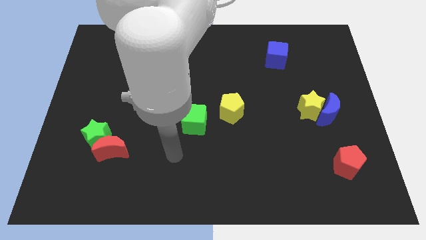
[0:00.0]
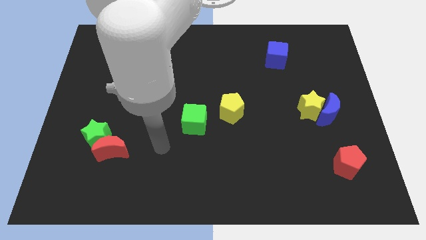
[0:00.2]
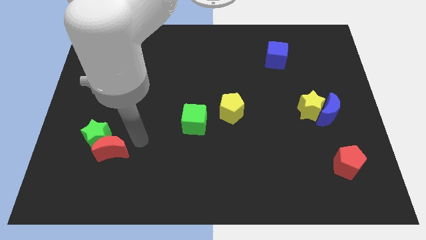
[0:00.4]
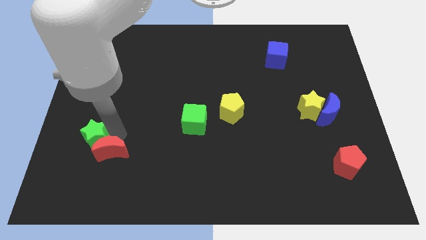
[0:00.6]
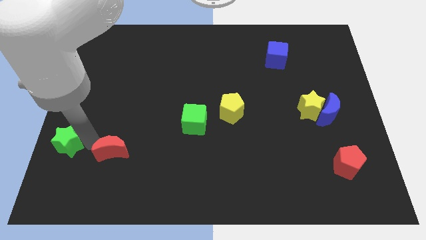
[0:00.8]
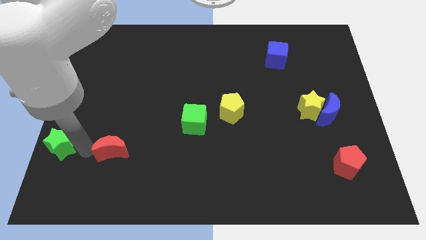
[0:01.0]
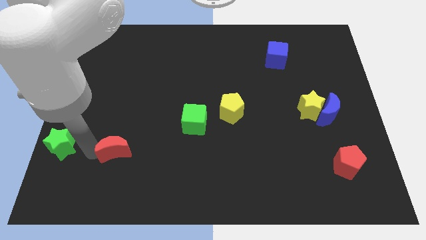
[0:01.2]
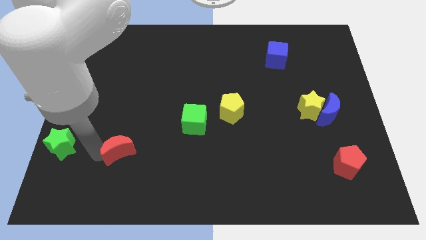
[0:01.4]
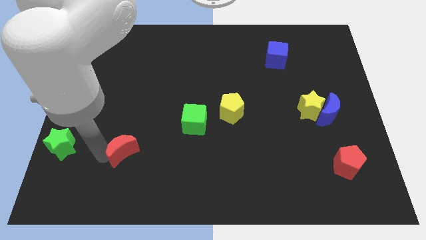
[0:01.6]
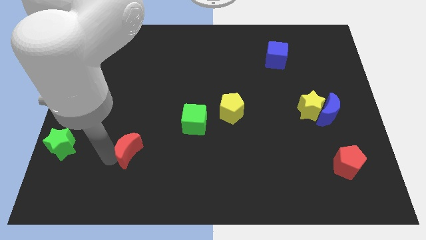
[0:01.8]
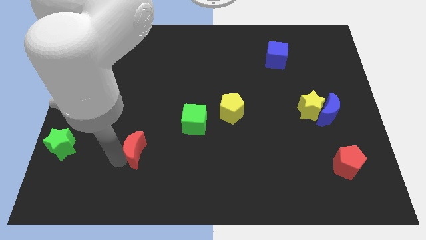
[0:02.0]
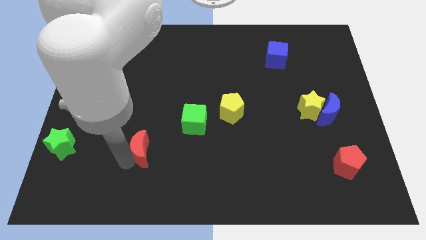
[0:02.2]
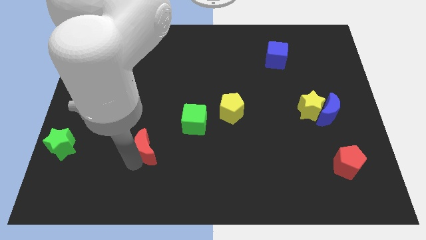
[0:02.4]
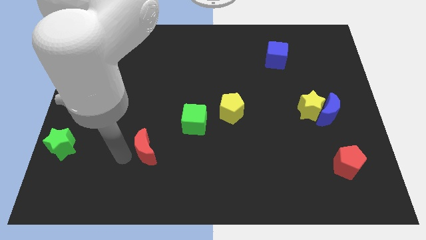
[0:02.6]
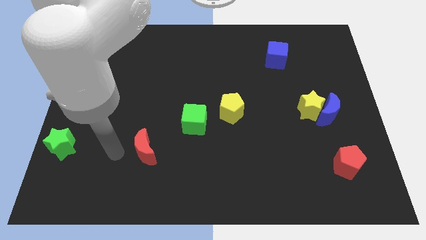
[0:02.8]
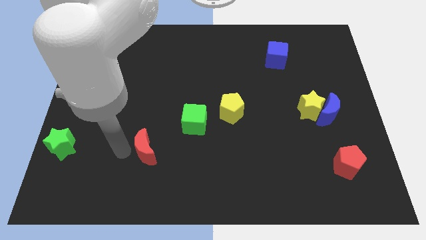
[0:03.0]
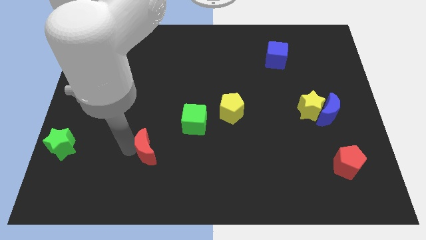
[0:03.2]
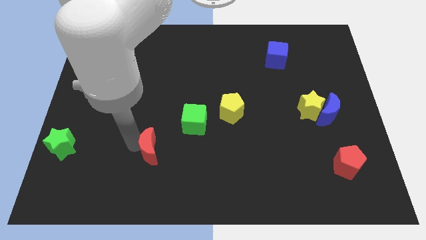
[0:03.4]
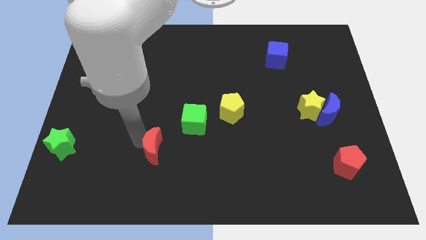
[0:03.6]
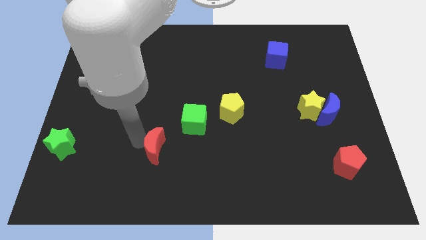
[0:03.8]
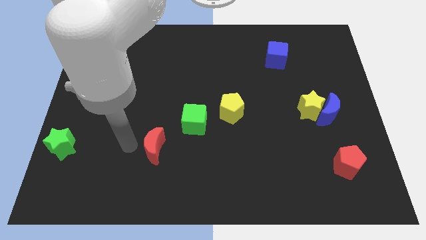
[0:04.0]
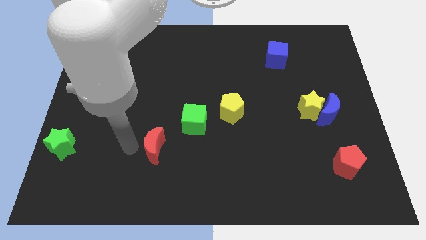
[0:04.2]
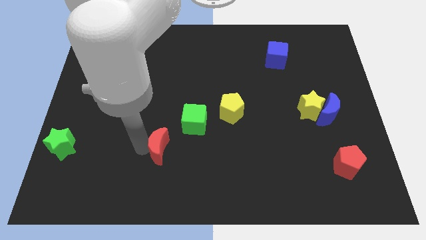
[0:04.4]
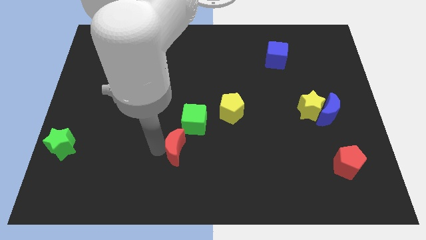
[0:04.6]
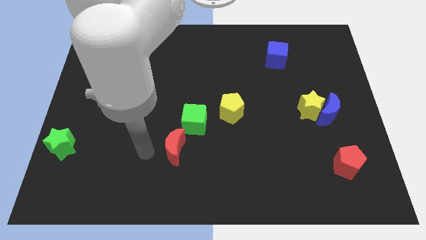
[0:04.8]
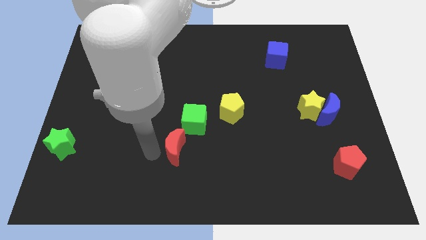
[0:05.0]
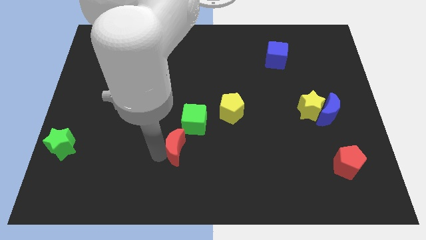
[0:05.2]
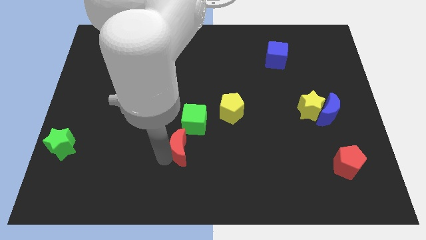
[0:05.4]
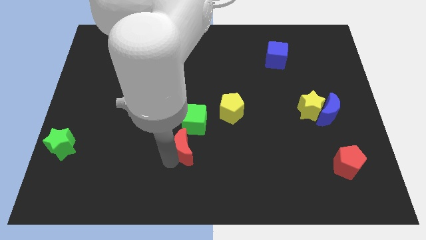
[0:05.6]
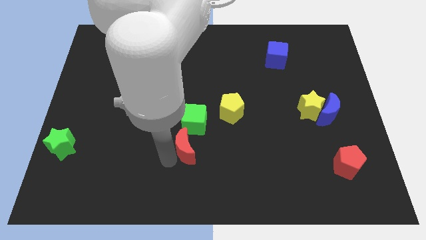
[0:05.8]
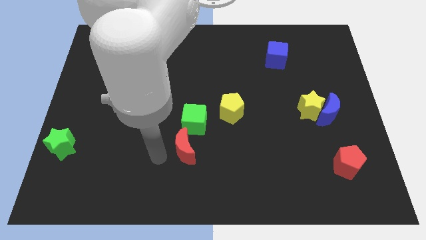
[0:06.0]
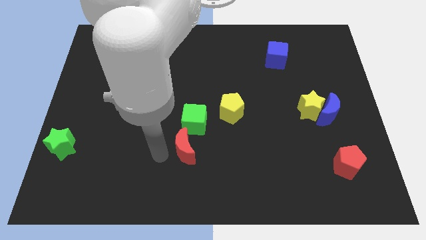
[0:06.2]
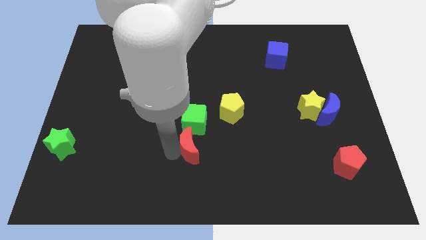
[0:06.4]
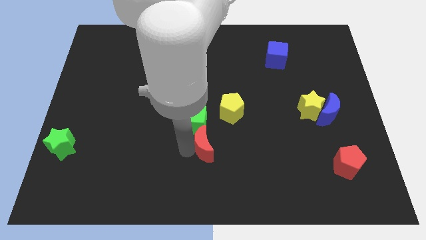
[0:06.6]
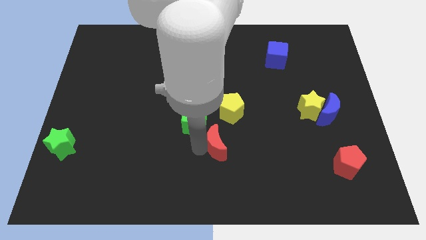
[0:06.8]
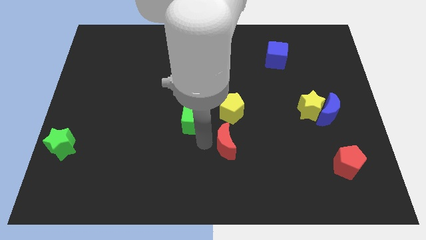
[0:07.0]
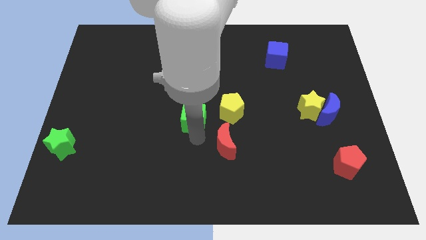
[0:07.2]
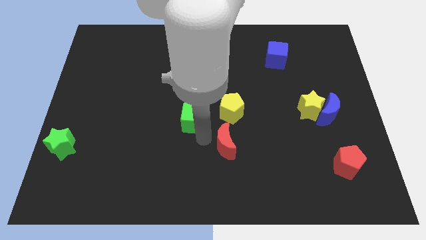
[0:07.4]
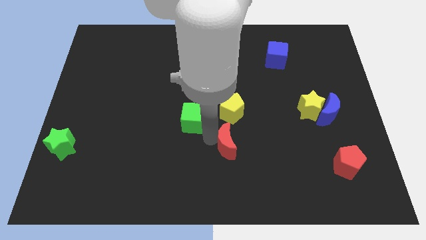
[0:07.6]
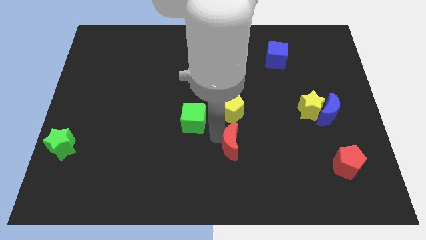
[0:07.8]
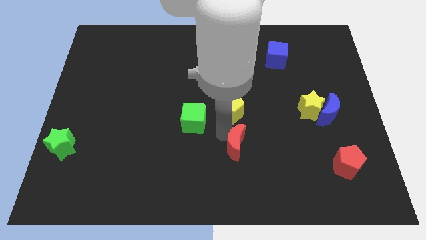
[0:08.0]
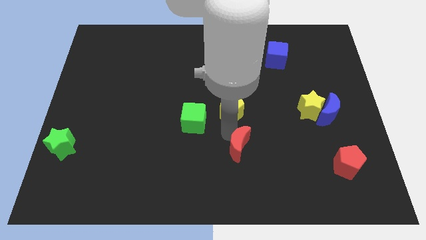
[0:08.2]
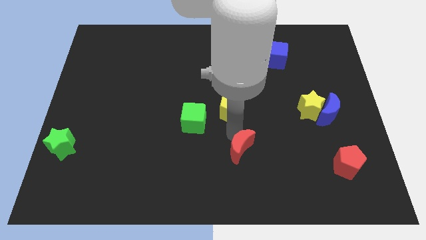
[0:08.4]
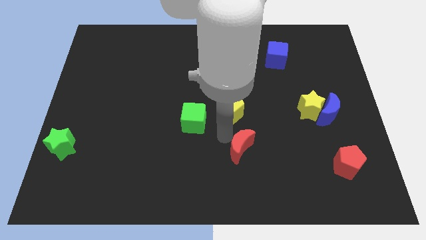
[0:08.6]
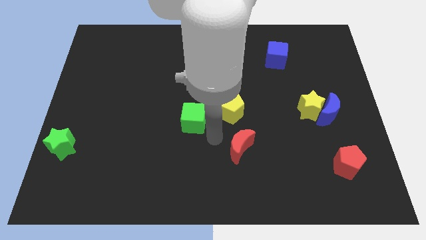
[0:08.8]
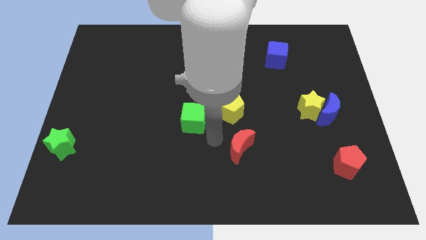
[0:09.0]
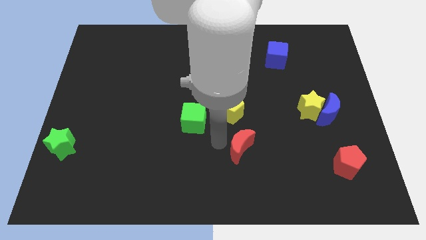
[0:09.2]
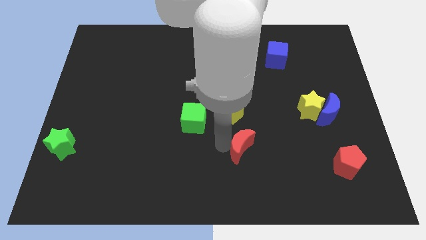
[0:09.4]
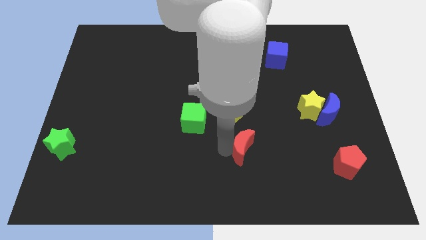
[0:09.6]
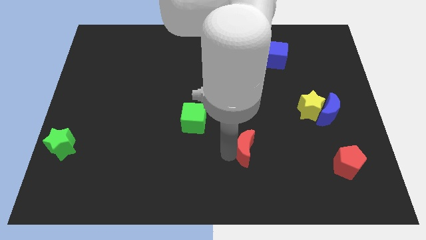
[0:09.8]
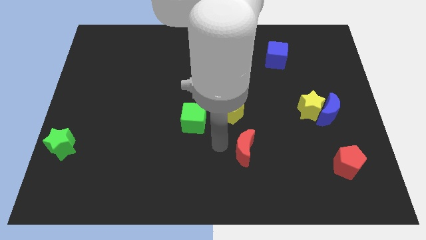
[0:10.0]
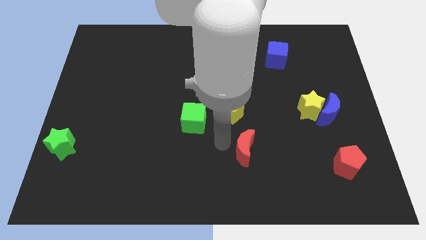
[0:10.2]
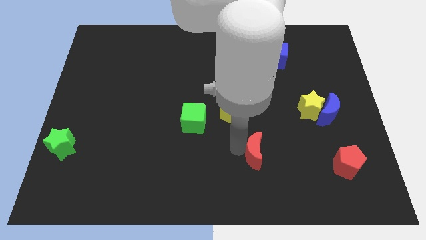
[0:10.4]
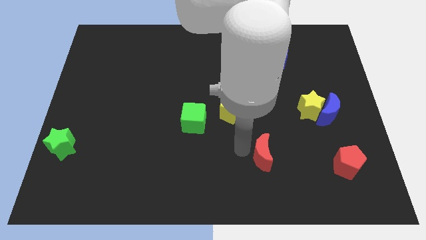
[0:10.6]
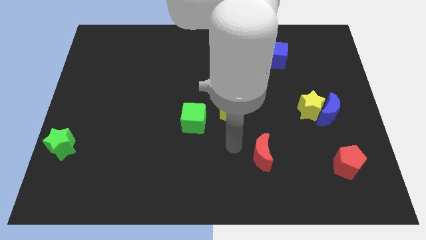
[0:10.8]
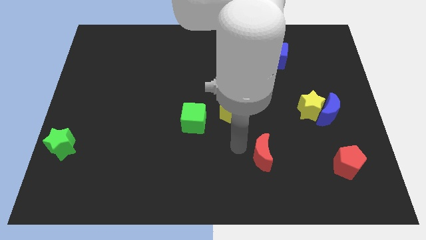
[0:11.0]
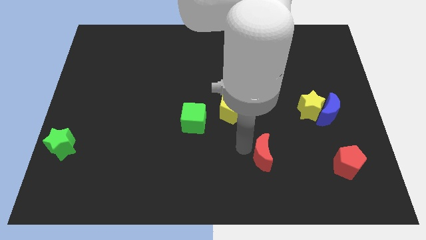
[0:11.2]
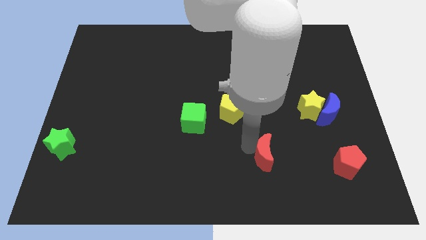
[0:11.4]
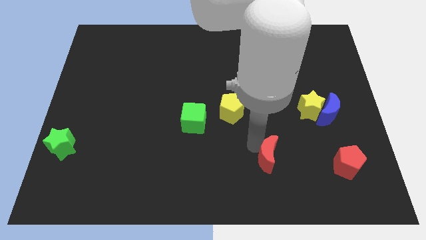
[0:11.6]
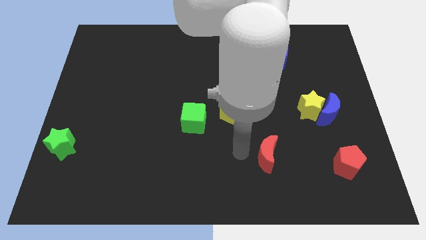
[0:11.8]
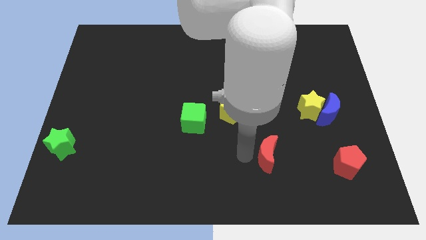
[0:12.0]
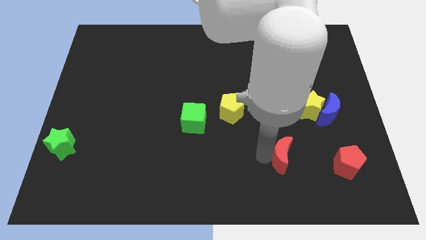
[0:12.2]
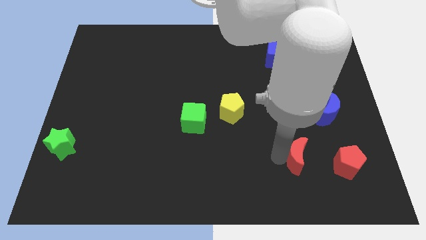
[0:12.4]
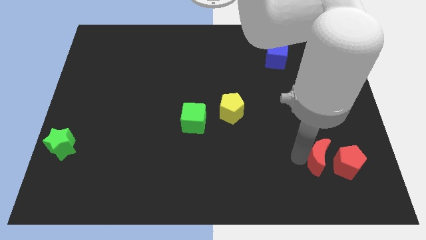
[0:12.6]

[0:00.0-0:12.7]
slide the red moon towards the red pentagon

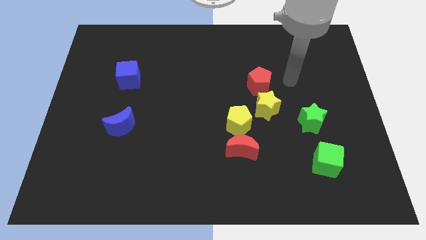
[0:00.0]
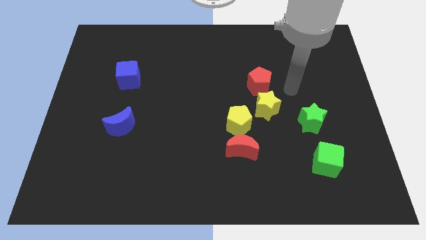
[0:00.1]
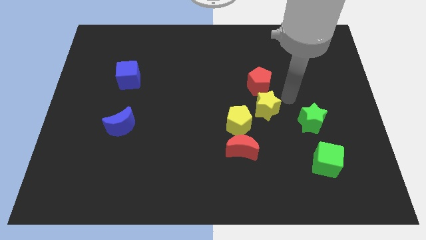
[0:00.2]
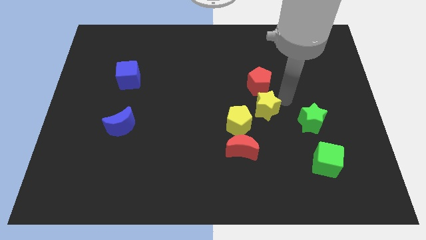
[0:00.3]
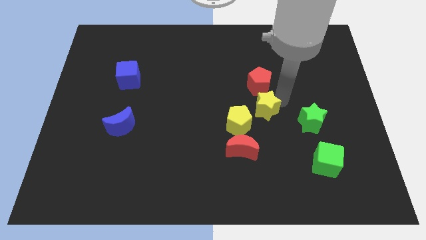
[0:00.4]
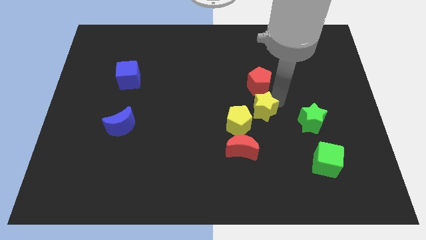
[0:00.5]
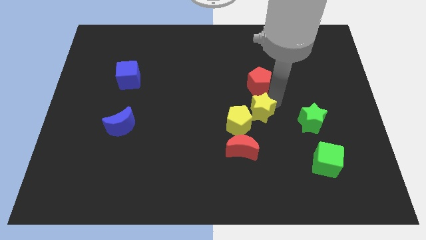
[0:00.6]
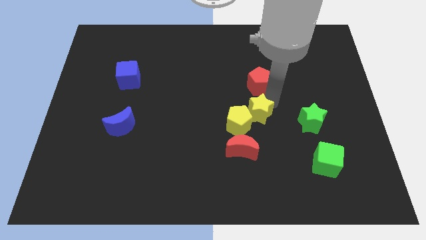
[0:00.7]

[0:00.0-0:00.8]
move the yellow star to the yellow pentagon
